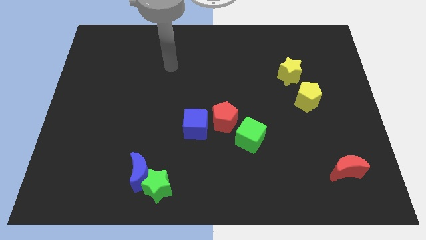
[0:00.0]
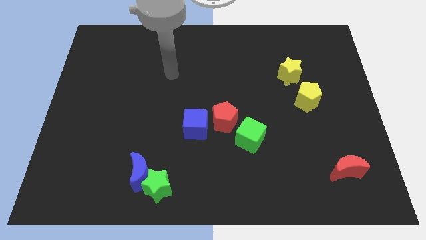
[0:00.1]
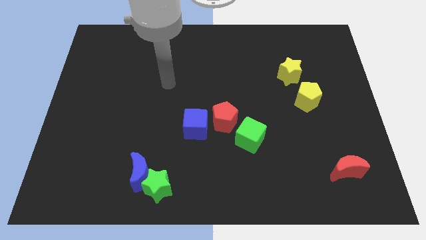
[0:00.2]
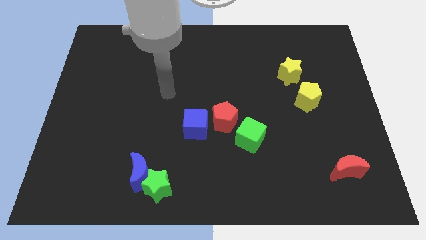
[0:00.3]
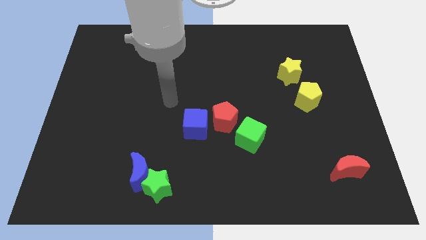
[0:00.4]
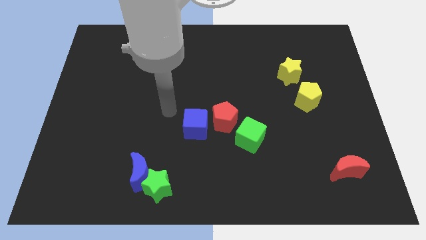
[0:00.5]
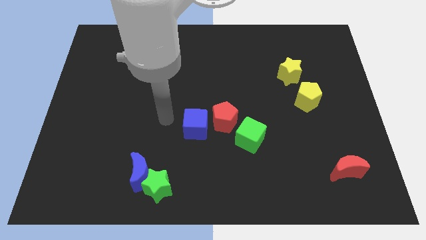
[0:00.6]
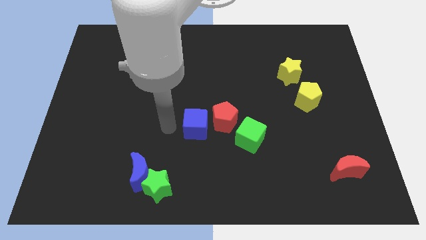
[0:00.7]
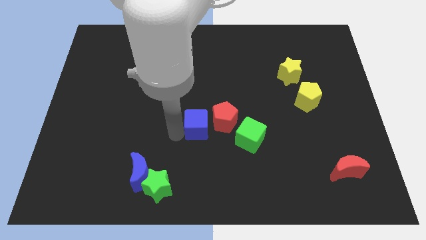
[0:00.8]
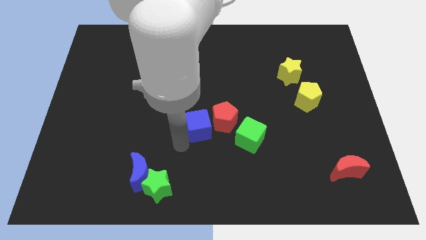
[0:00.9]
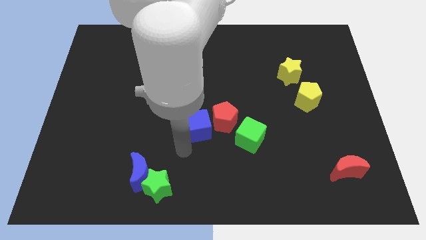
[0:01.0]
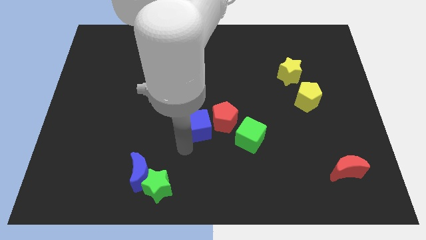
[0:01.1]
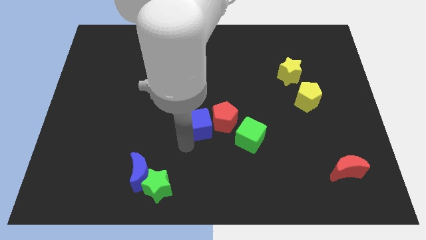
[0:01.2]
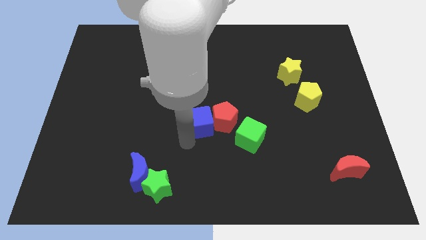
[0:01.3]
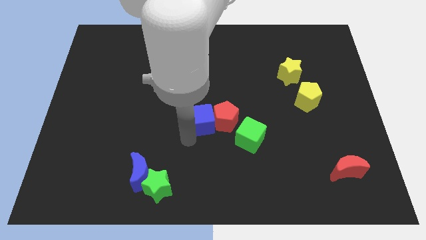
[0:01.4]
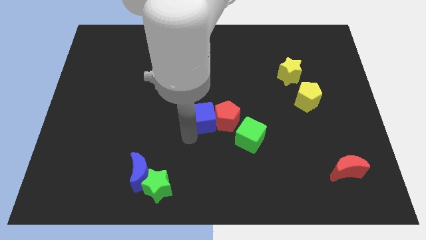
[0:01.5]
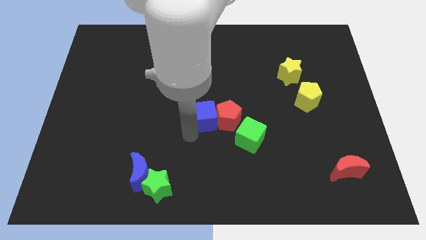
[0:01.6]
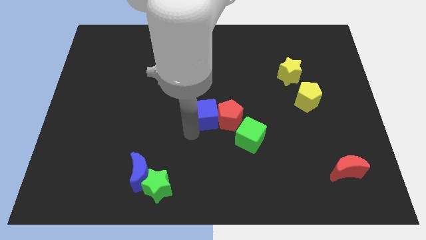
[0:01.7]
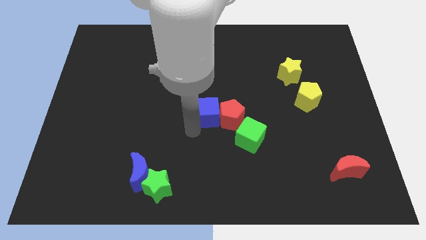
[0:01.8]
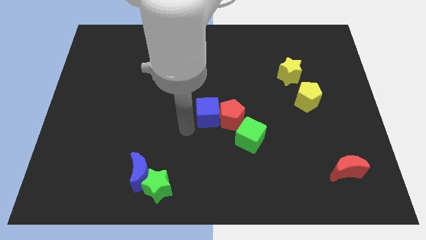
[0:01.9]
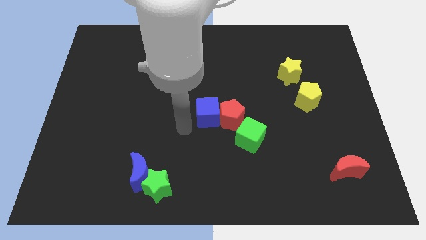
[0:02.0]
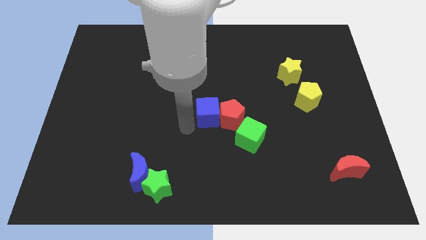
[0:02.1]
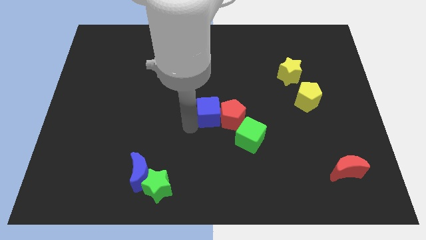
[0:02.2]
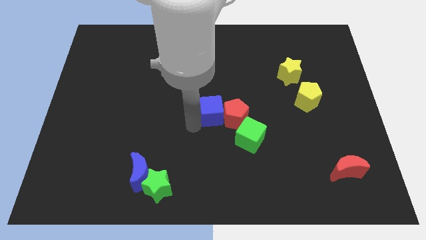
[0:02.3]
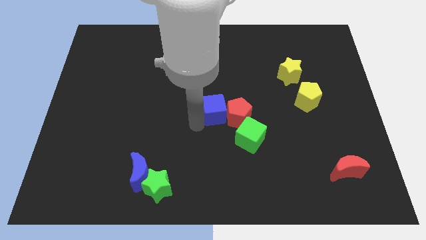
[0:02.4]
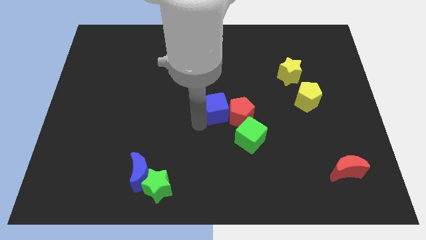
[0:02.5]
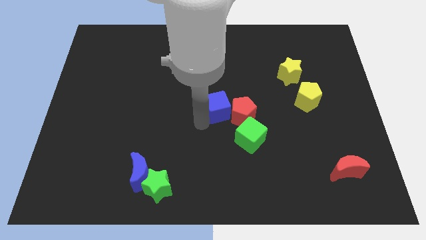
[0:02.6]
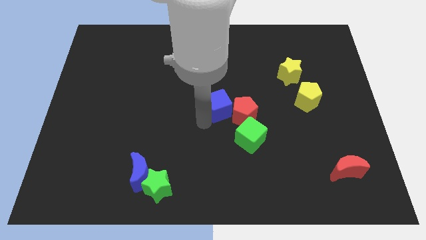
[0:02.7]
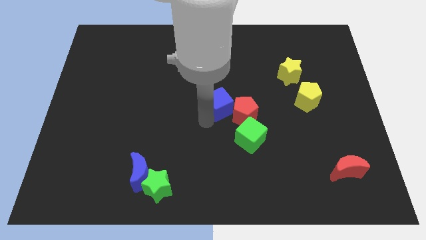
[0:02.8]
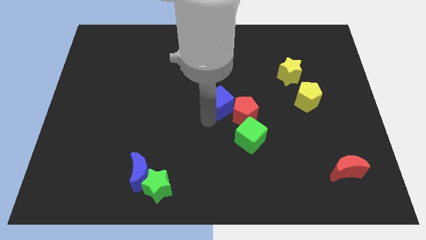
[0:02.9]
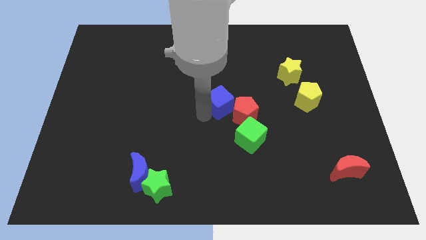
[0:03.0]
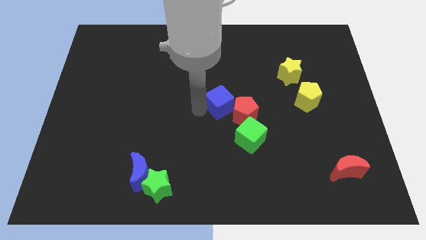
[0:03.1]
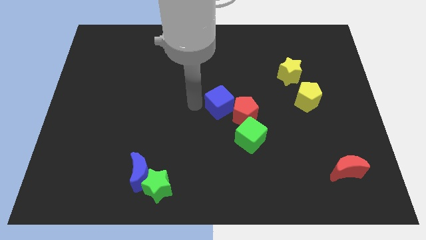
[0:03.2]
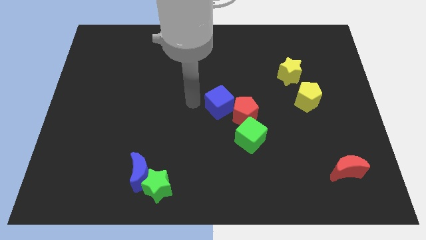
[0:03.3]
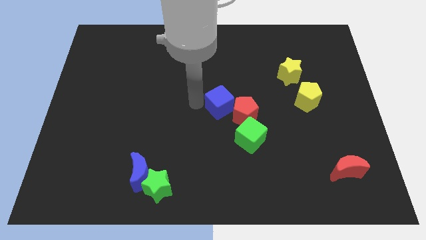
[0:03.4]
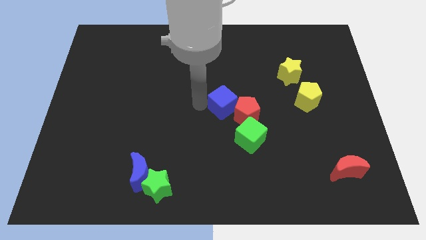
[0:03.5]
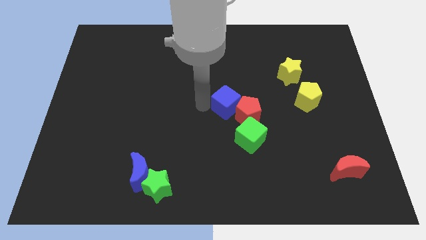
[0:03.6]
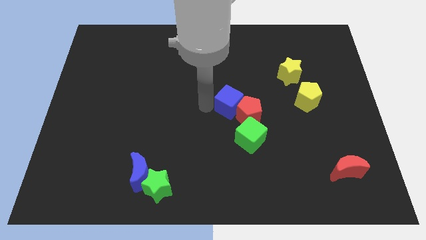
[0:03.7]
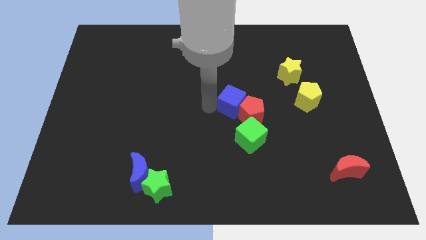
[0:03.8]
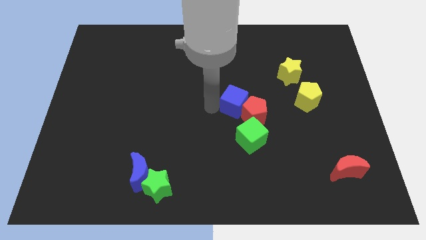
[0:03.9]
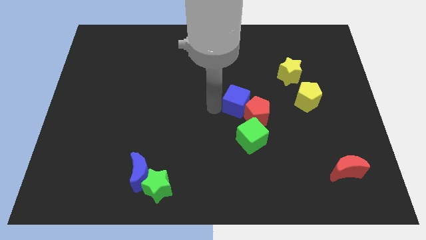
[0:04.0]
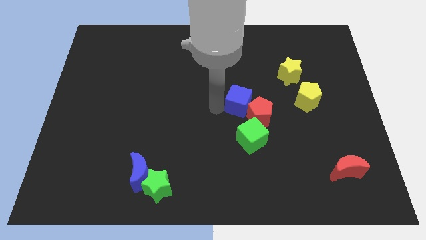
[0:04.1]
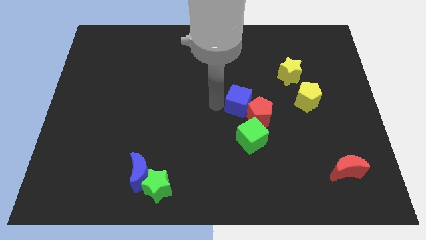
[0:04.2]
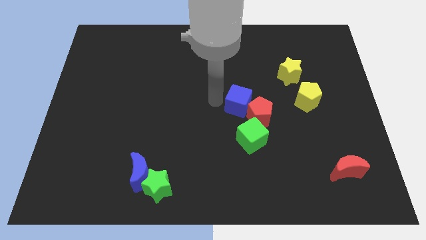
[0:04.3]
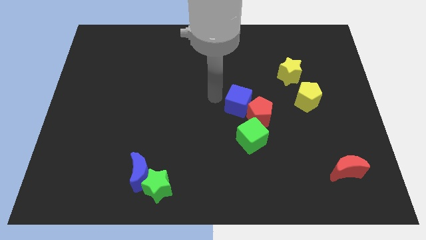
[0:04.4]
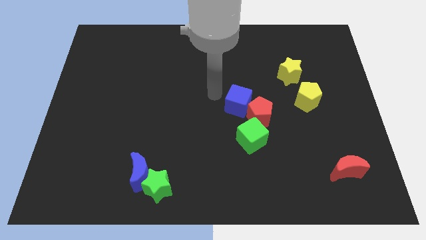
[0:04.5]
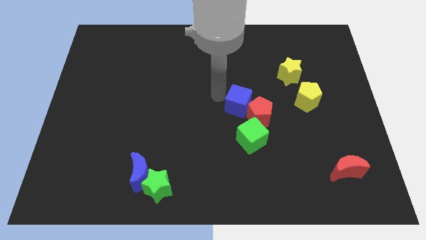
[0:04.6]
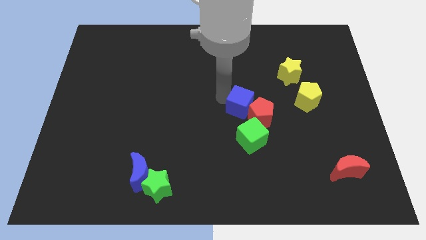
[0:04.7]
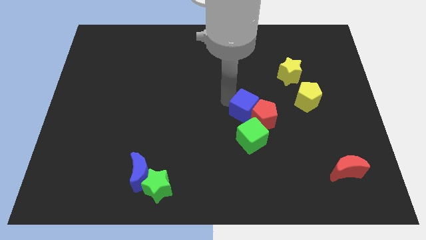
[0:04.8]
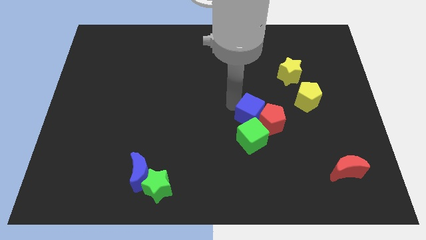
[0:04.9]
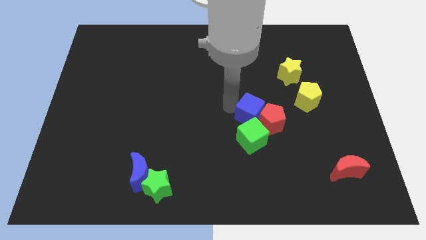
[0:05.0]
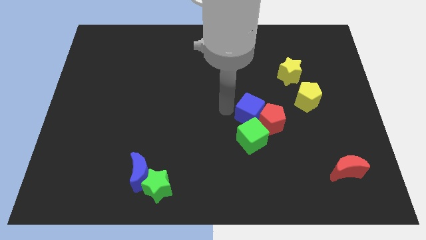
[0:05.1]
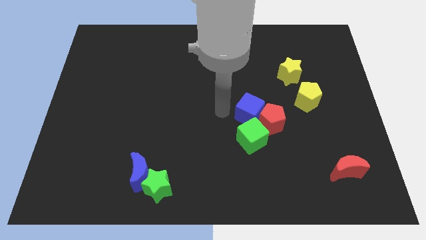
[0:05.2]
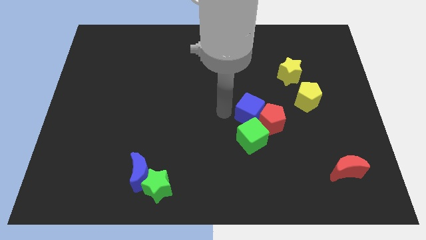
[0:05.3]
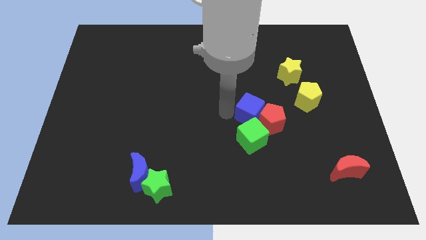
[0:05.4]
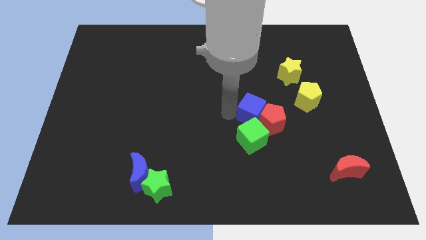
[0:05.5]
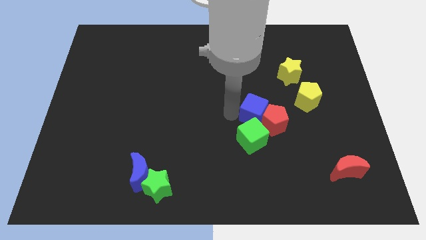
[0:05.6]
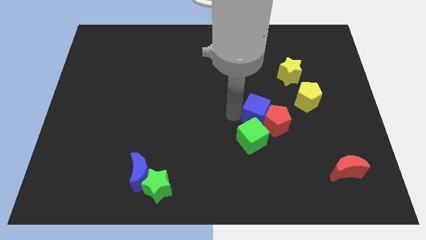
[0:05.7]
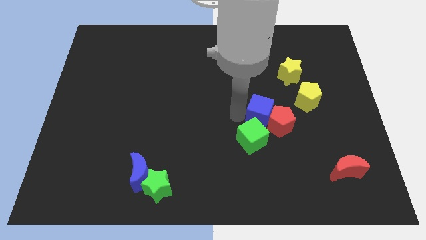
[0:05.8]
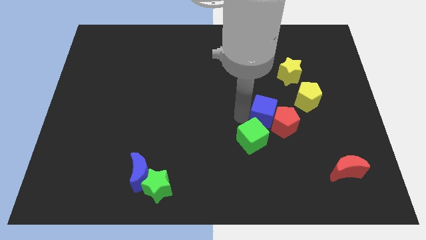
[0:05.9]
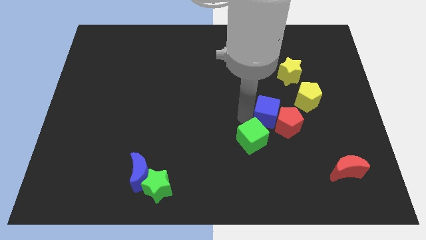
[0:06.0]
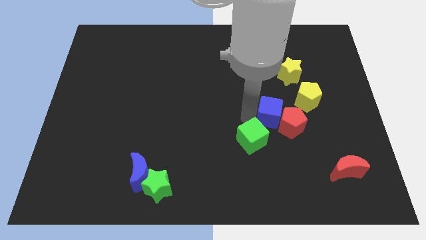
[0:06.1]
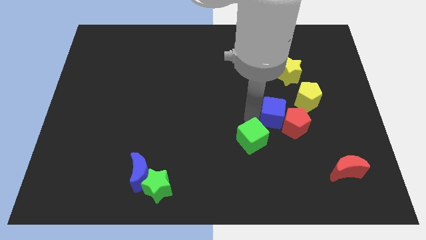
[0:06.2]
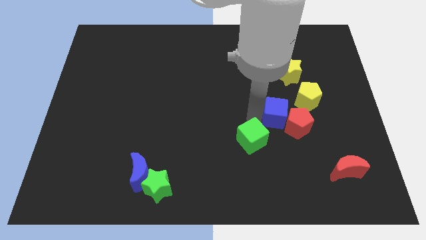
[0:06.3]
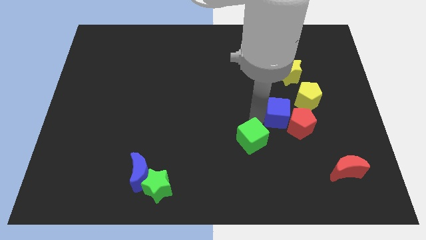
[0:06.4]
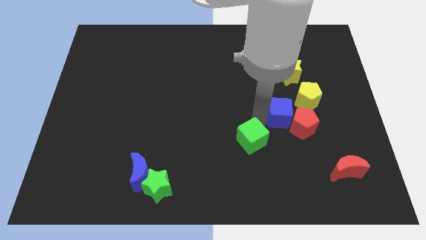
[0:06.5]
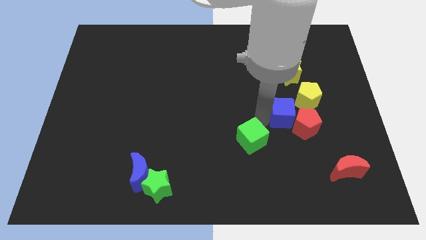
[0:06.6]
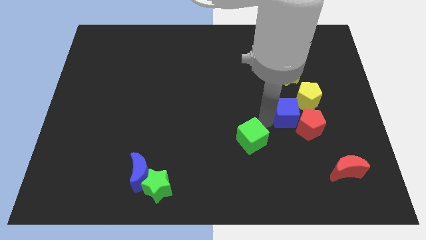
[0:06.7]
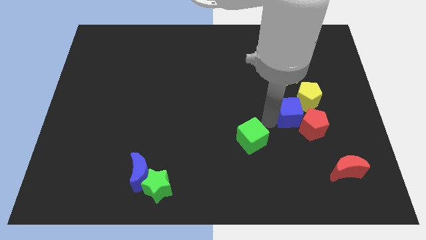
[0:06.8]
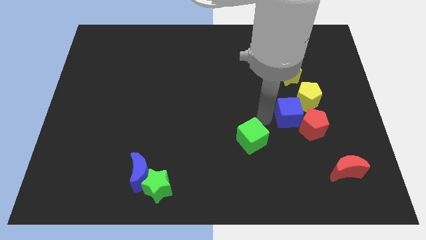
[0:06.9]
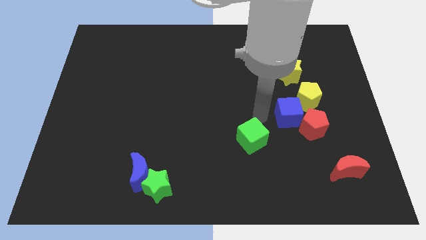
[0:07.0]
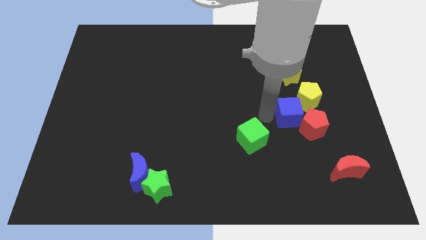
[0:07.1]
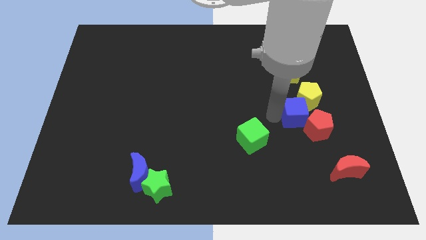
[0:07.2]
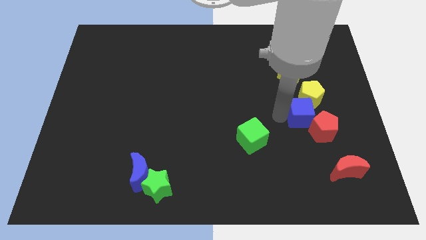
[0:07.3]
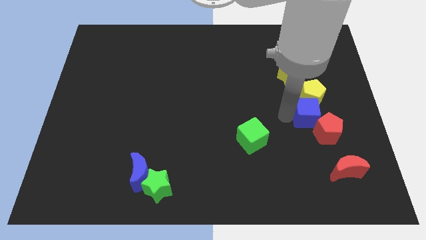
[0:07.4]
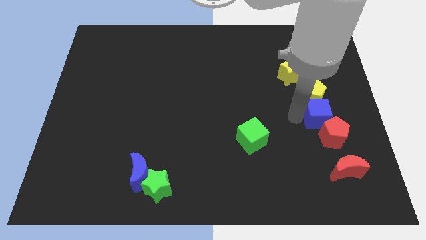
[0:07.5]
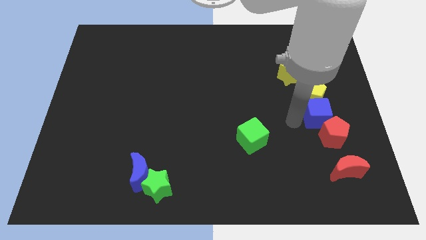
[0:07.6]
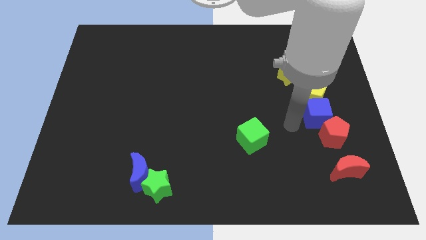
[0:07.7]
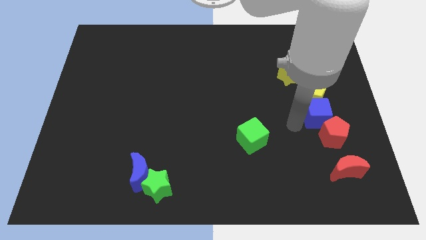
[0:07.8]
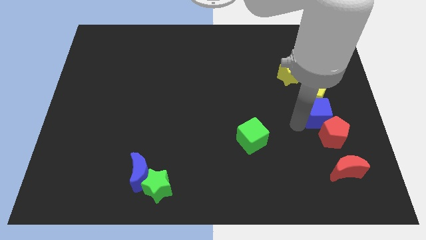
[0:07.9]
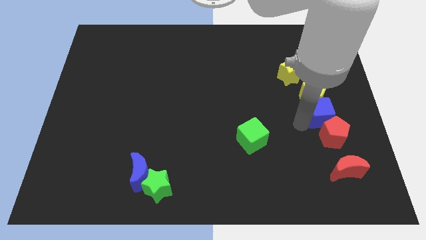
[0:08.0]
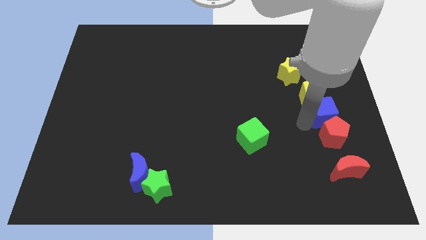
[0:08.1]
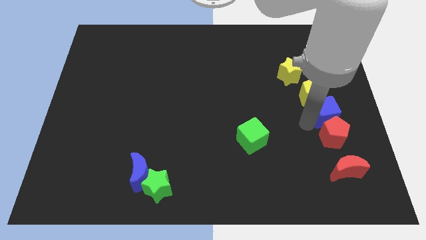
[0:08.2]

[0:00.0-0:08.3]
push the blue cube to the center right
